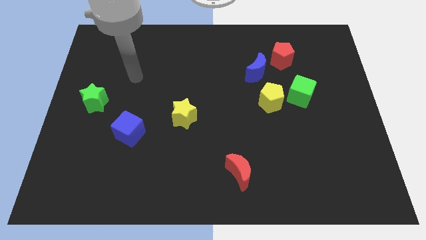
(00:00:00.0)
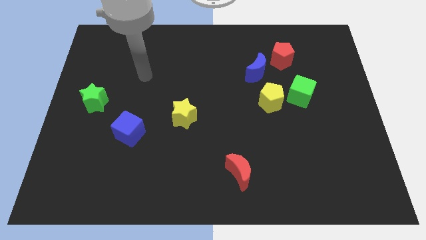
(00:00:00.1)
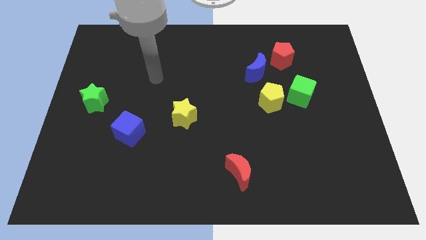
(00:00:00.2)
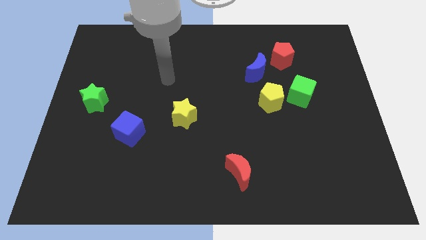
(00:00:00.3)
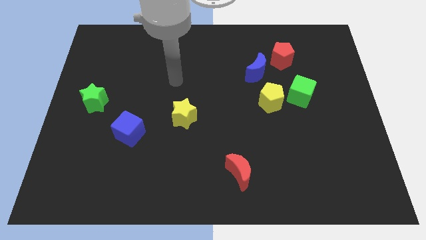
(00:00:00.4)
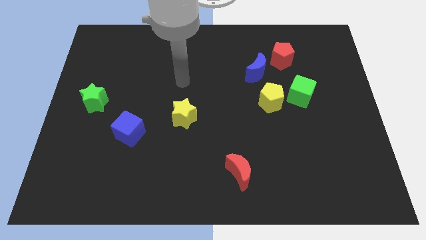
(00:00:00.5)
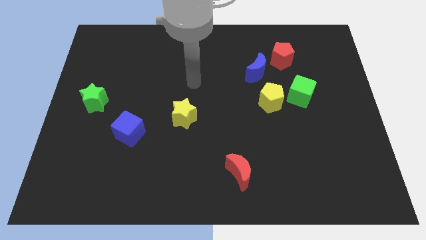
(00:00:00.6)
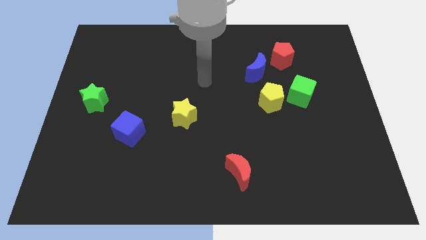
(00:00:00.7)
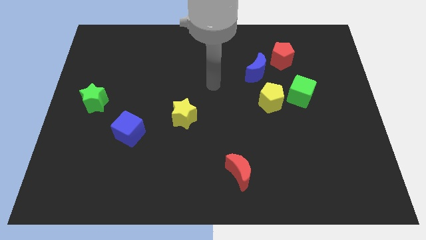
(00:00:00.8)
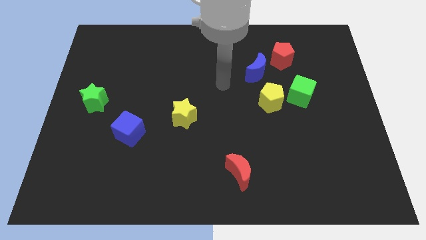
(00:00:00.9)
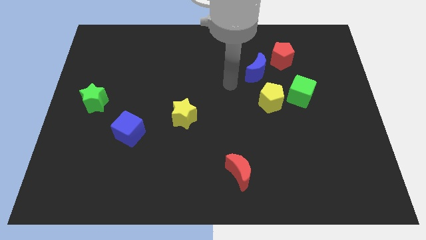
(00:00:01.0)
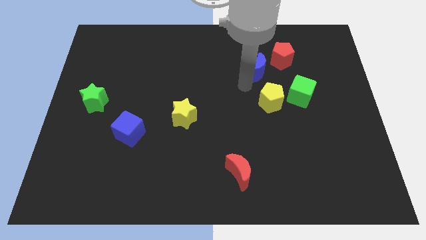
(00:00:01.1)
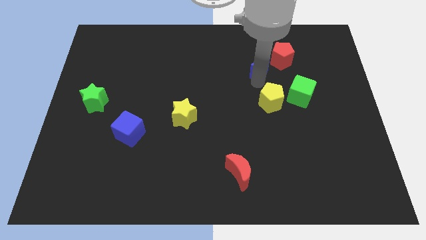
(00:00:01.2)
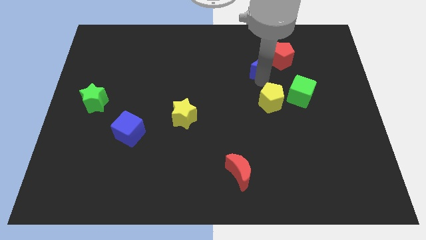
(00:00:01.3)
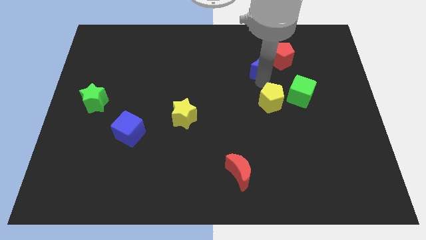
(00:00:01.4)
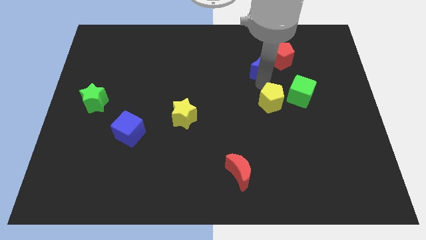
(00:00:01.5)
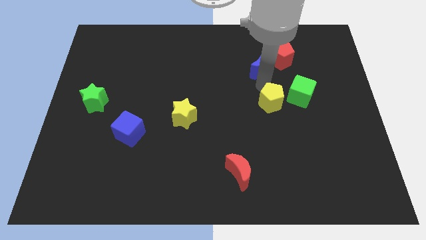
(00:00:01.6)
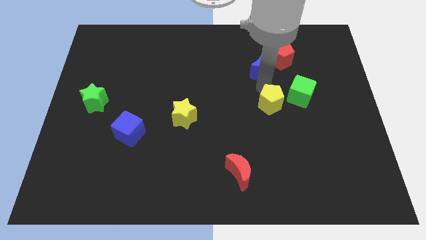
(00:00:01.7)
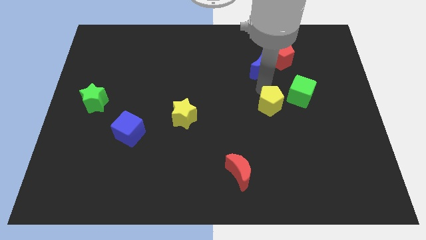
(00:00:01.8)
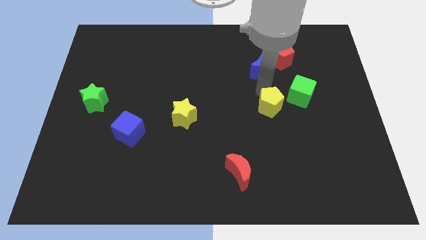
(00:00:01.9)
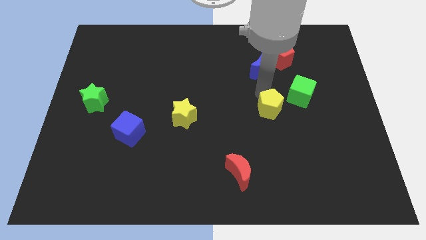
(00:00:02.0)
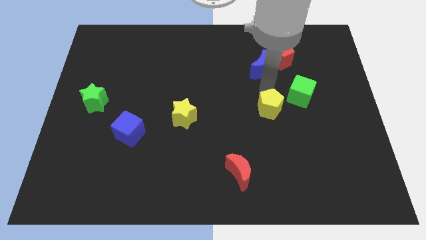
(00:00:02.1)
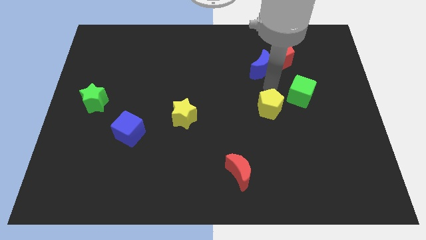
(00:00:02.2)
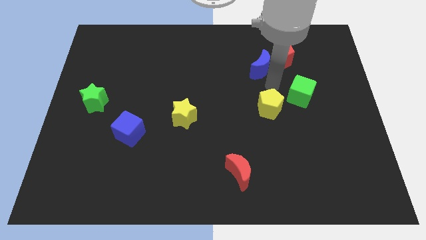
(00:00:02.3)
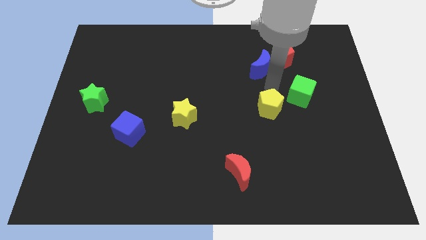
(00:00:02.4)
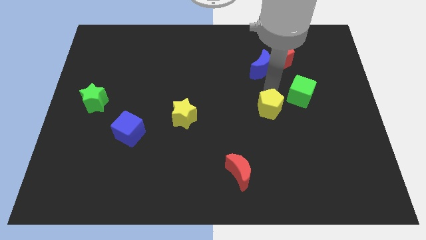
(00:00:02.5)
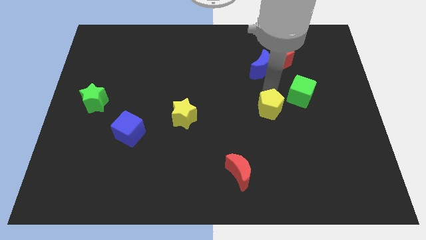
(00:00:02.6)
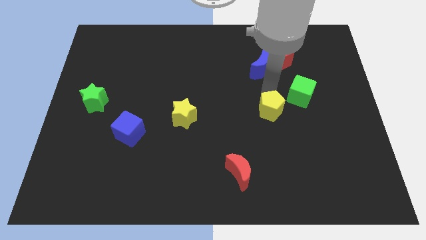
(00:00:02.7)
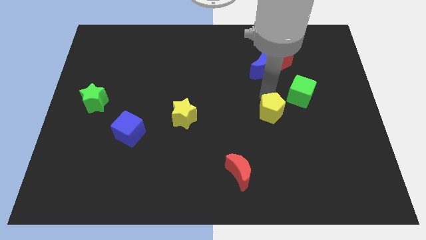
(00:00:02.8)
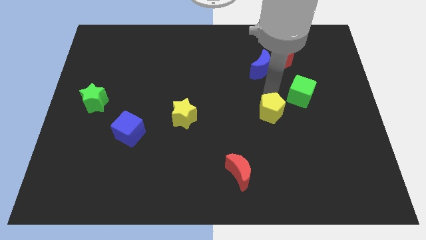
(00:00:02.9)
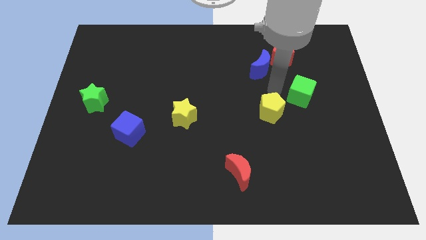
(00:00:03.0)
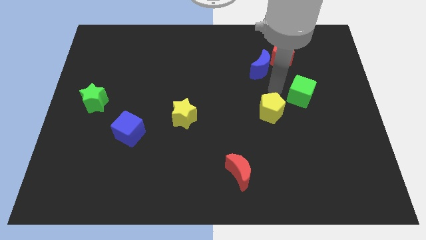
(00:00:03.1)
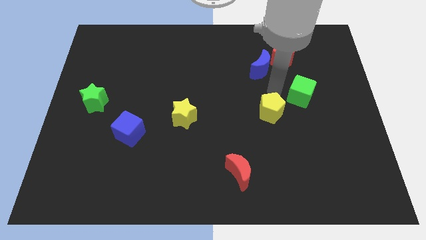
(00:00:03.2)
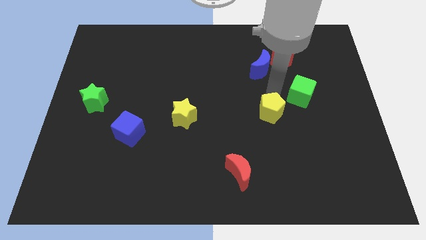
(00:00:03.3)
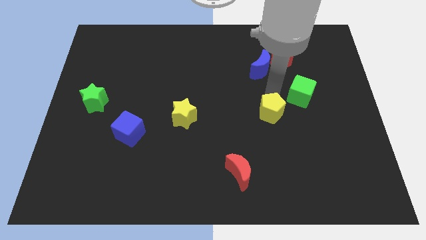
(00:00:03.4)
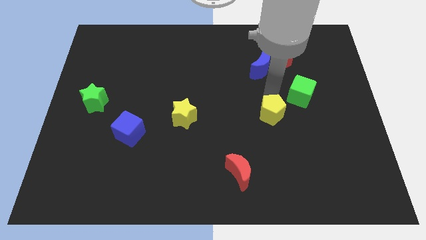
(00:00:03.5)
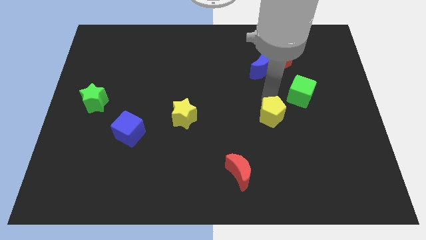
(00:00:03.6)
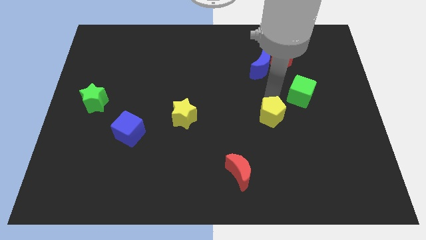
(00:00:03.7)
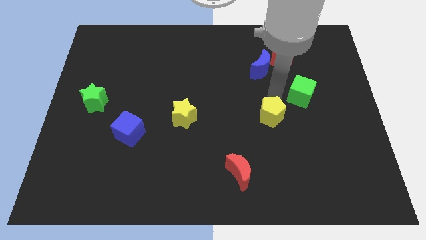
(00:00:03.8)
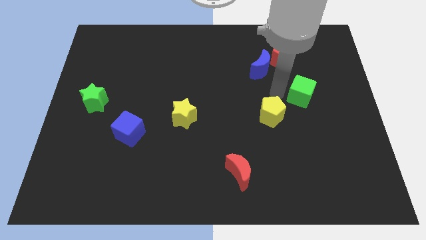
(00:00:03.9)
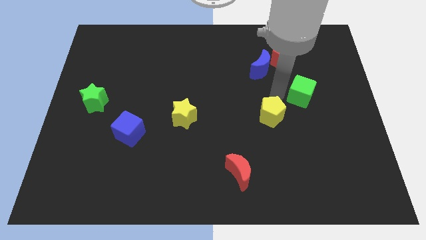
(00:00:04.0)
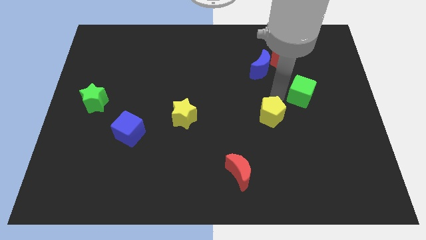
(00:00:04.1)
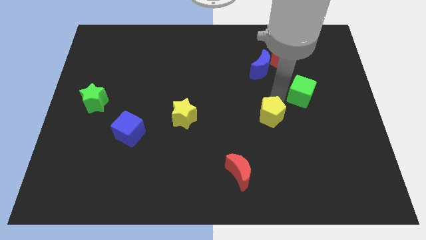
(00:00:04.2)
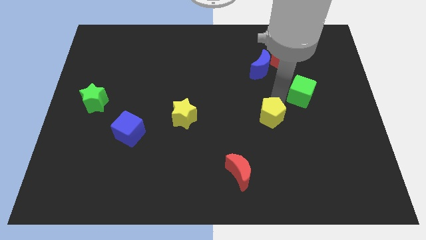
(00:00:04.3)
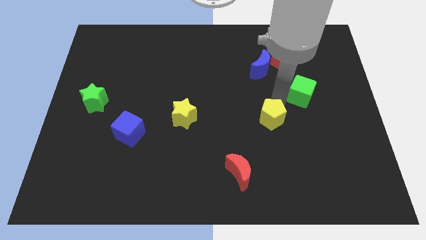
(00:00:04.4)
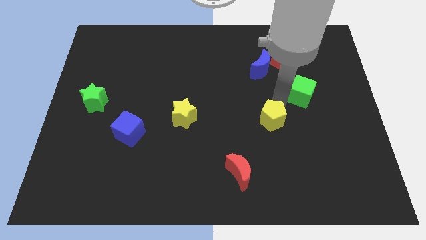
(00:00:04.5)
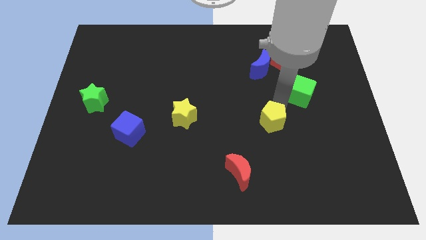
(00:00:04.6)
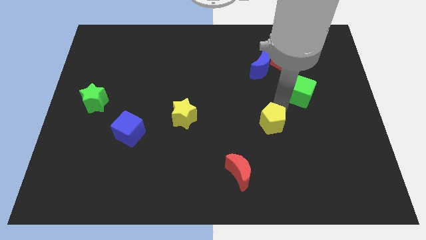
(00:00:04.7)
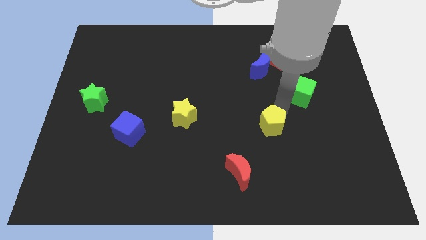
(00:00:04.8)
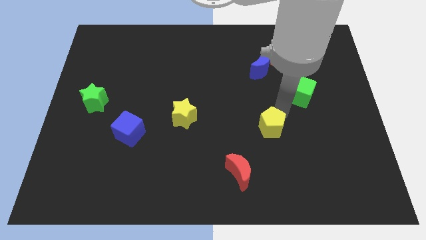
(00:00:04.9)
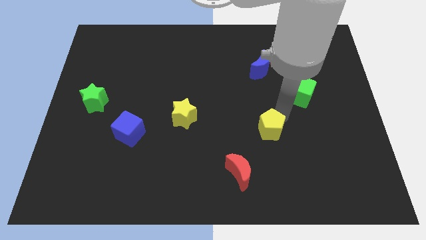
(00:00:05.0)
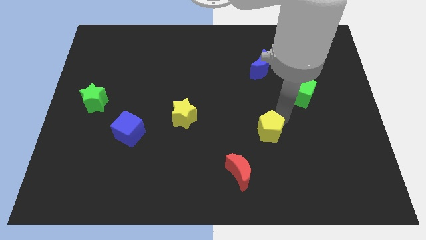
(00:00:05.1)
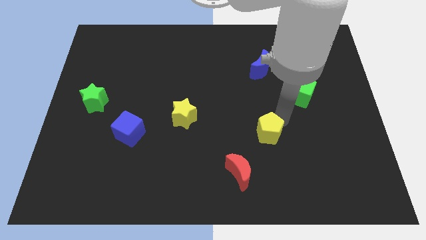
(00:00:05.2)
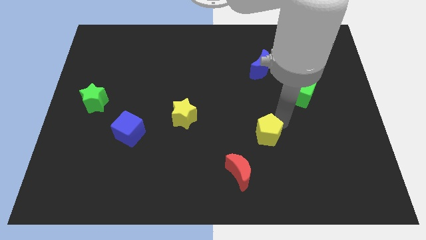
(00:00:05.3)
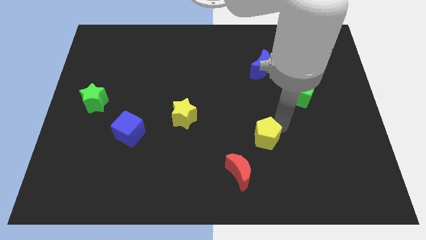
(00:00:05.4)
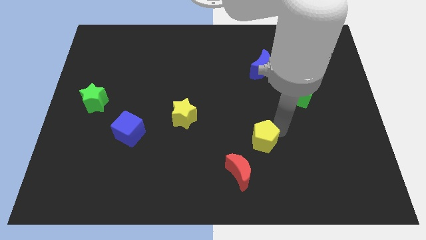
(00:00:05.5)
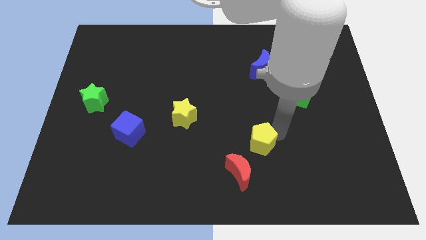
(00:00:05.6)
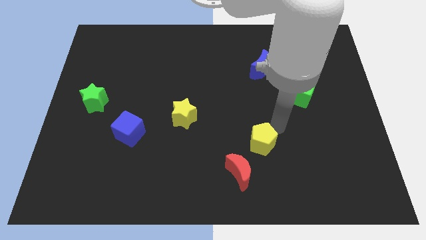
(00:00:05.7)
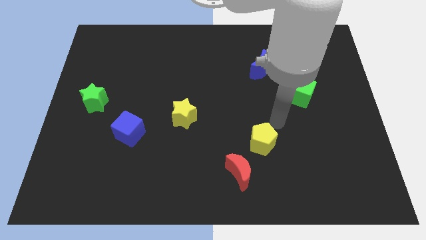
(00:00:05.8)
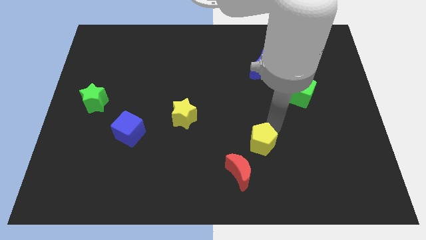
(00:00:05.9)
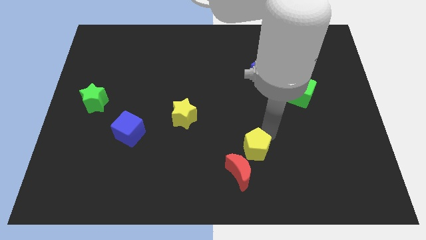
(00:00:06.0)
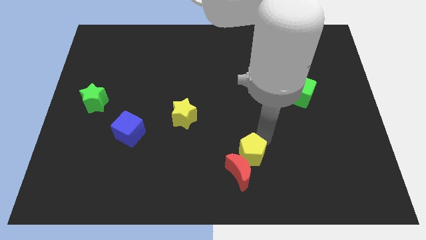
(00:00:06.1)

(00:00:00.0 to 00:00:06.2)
put the yellow pentagon to the red moon

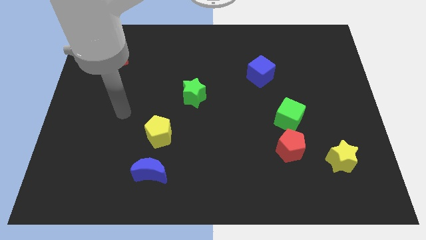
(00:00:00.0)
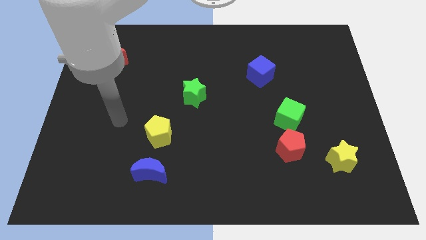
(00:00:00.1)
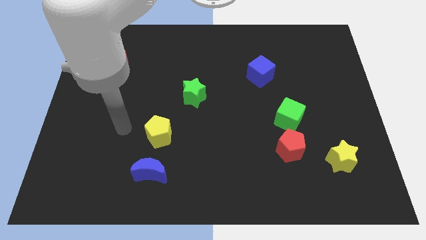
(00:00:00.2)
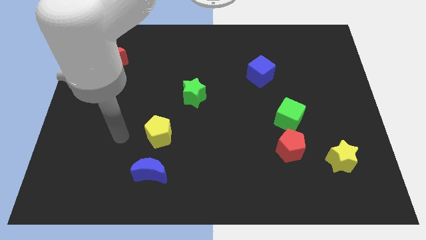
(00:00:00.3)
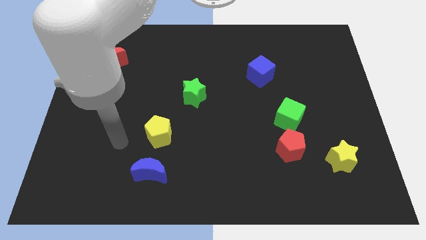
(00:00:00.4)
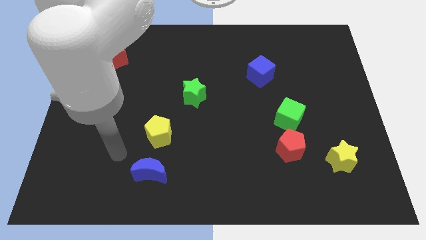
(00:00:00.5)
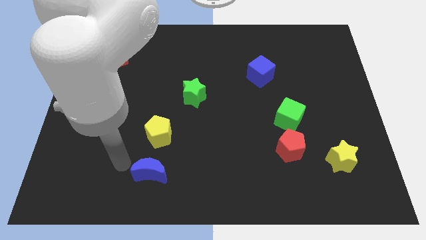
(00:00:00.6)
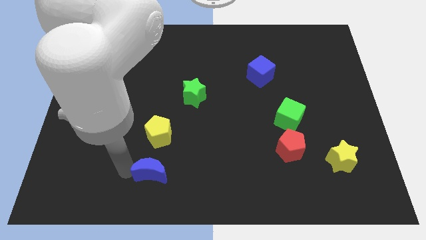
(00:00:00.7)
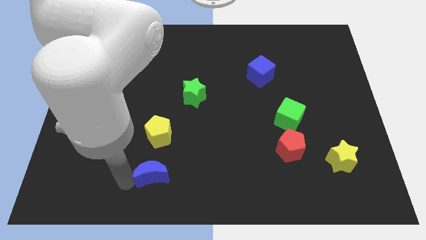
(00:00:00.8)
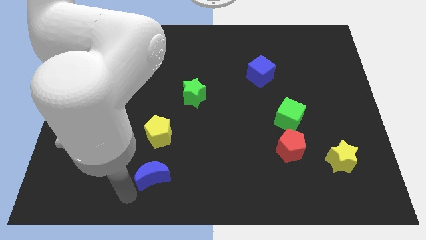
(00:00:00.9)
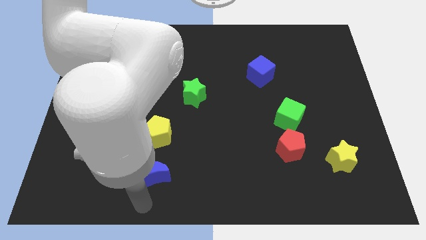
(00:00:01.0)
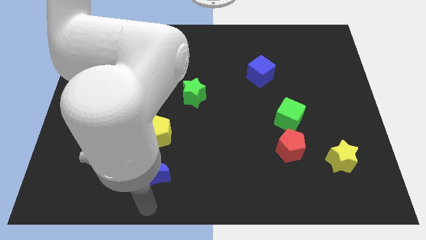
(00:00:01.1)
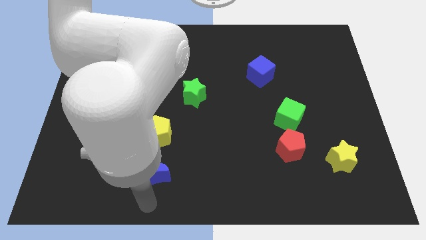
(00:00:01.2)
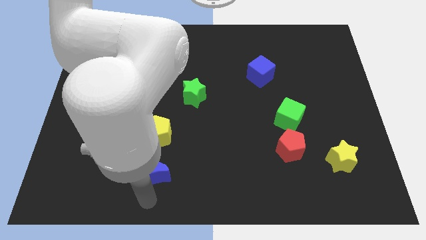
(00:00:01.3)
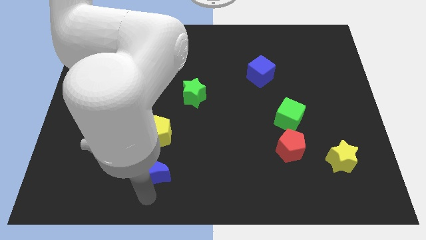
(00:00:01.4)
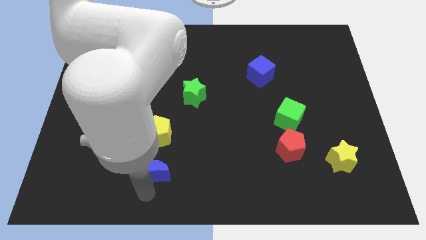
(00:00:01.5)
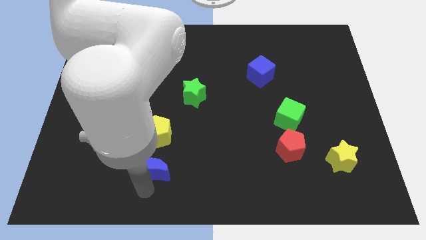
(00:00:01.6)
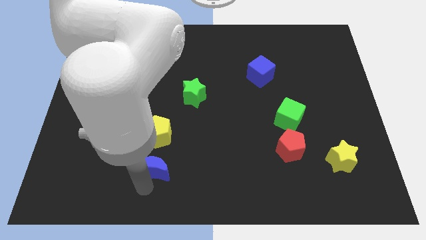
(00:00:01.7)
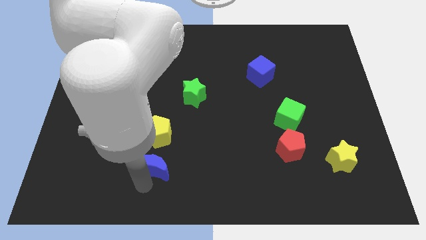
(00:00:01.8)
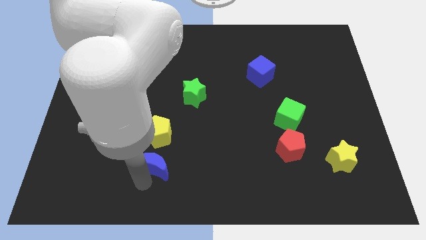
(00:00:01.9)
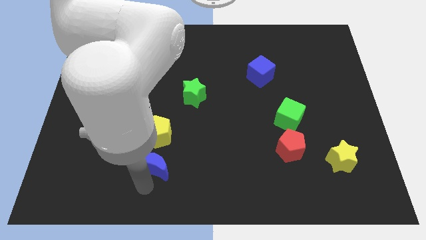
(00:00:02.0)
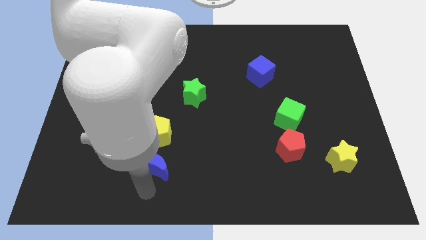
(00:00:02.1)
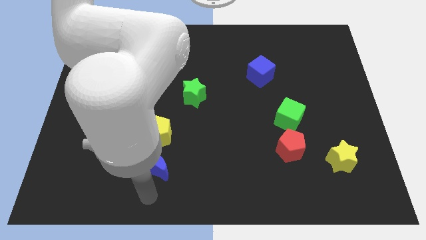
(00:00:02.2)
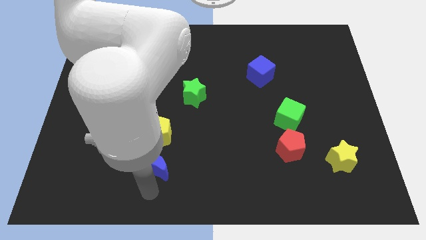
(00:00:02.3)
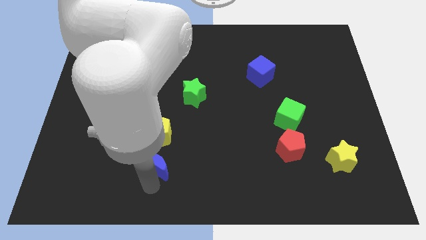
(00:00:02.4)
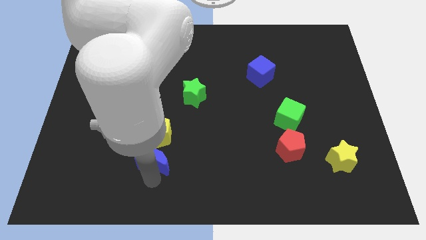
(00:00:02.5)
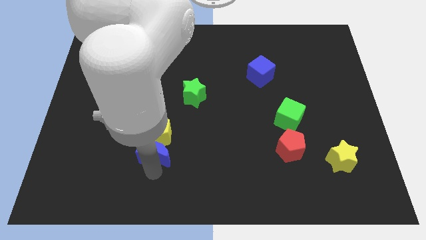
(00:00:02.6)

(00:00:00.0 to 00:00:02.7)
slide the blue moon to the yellow pentagon
